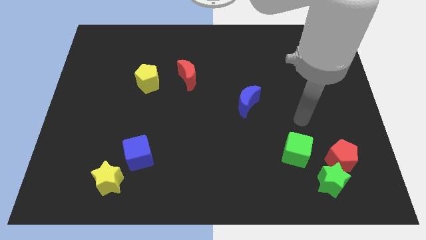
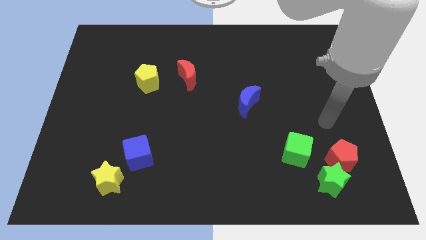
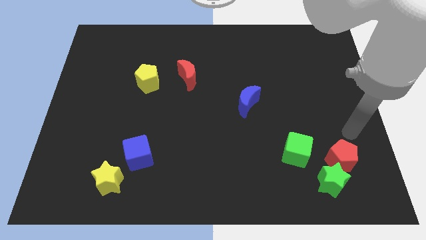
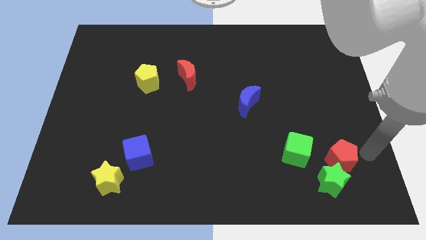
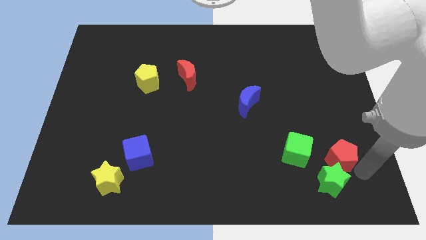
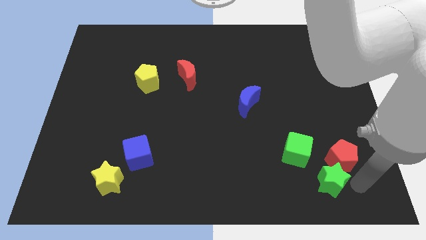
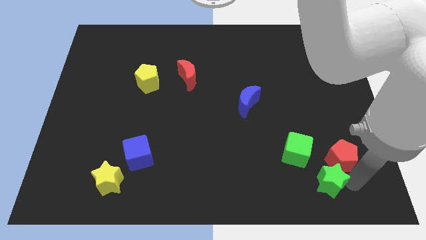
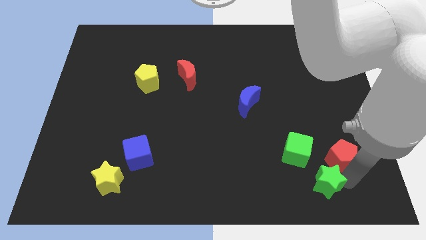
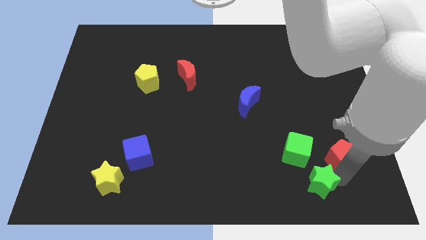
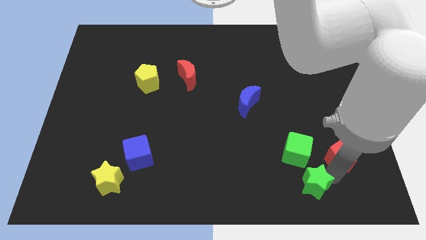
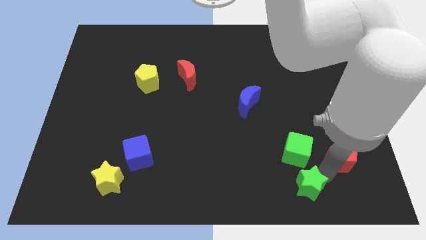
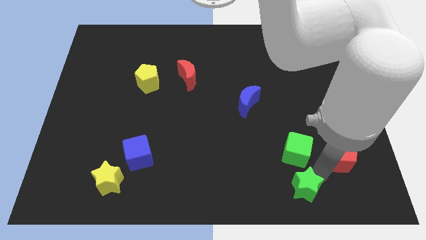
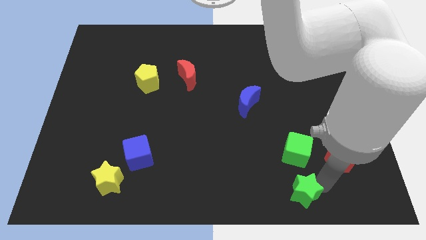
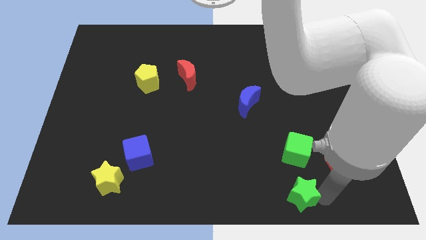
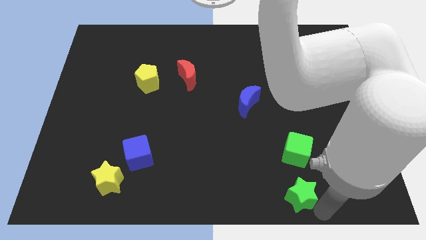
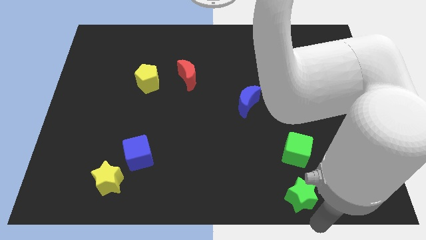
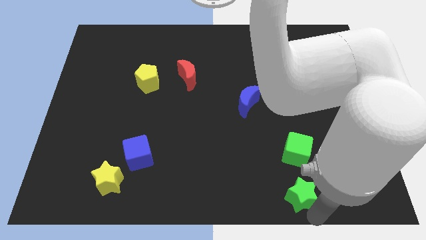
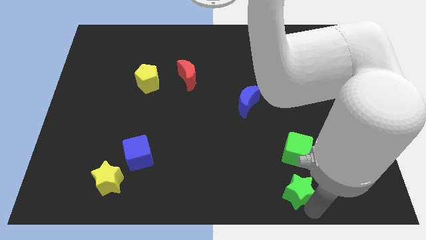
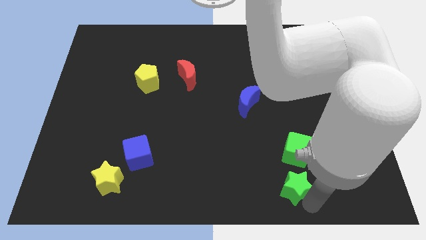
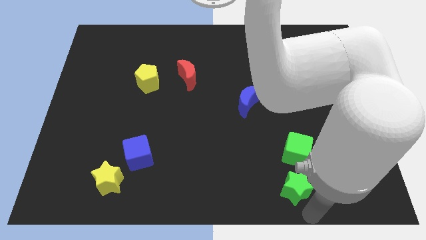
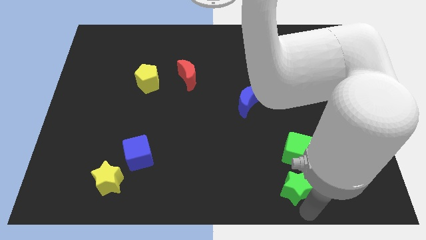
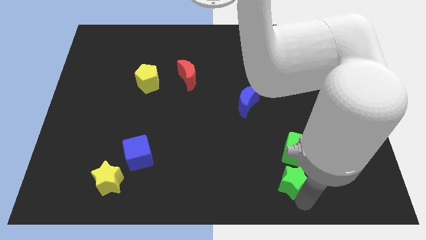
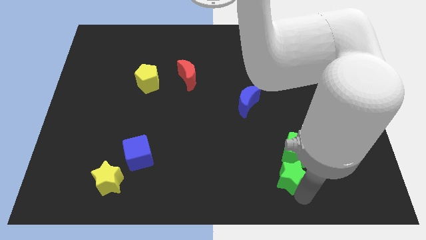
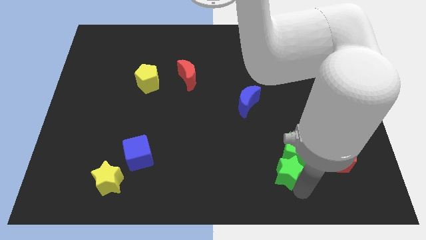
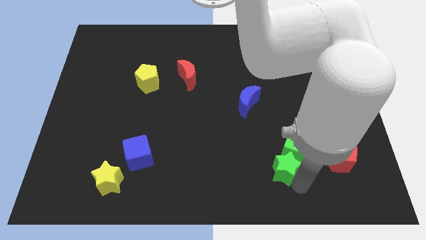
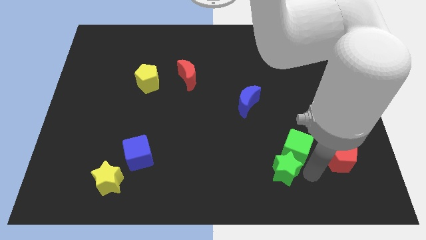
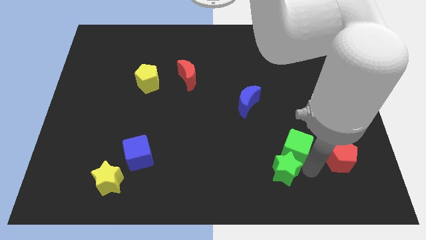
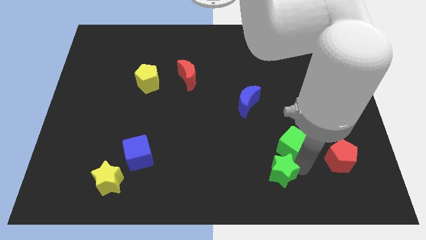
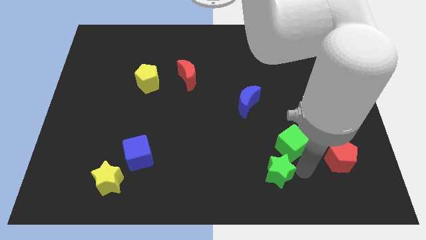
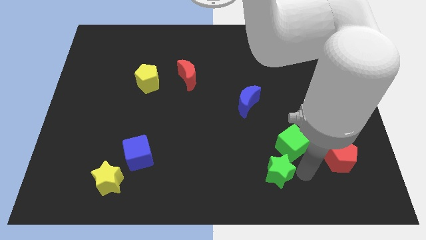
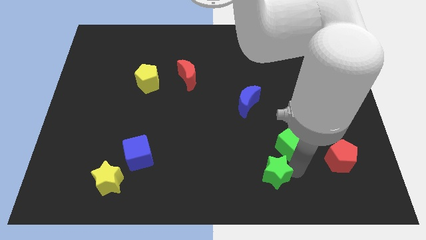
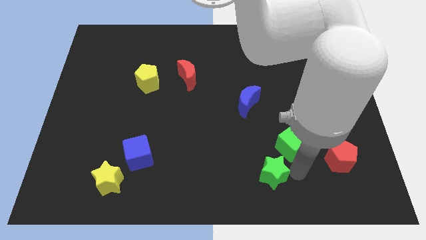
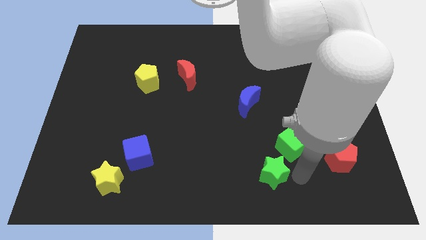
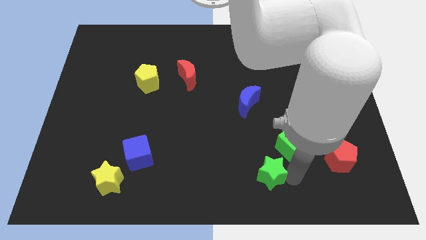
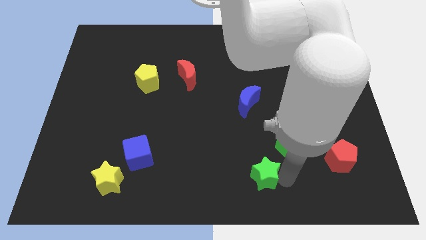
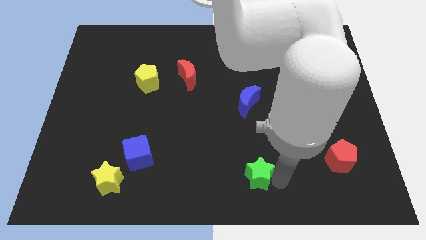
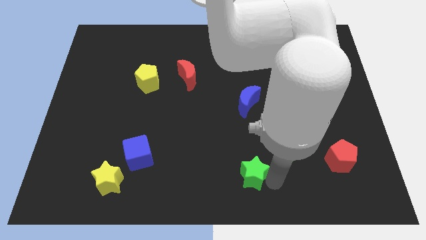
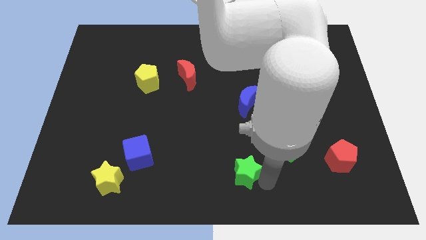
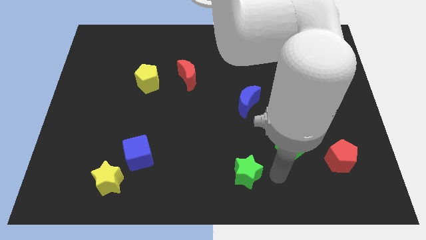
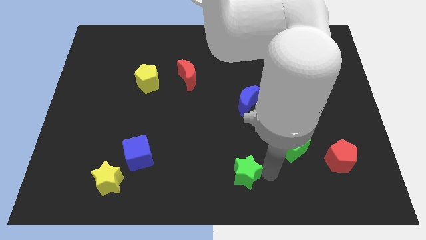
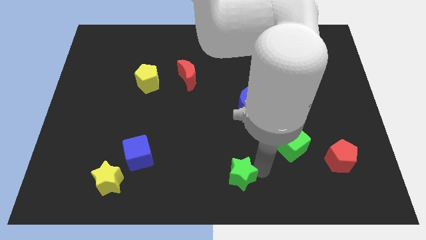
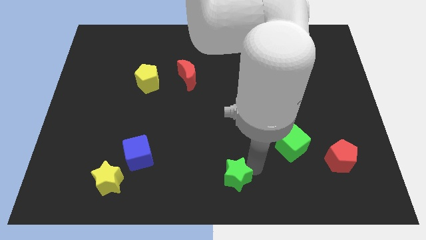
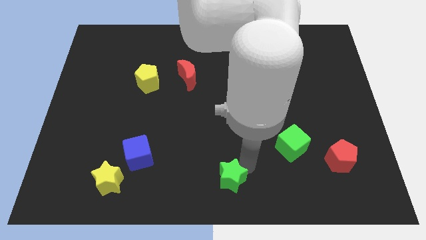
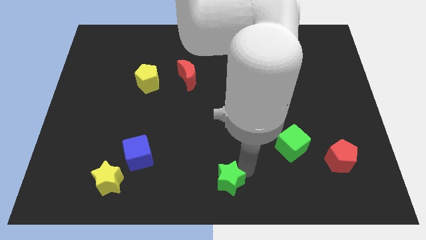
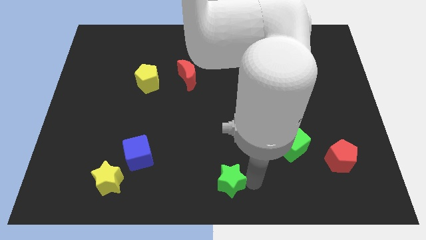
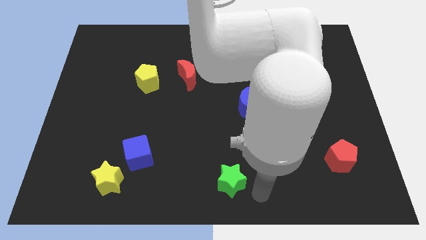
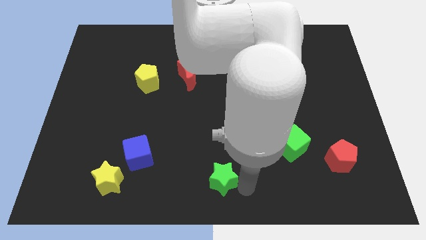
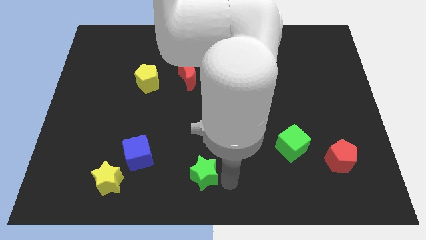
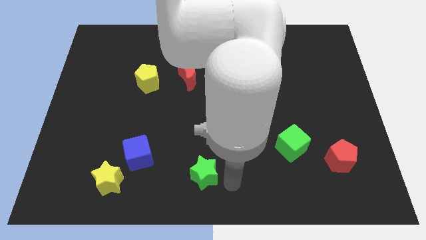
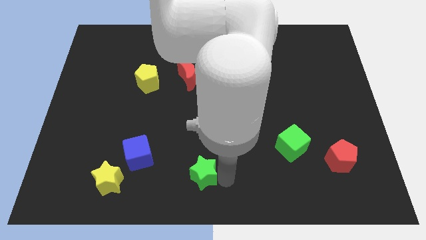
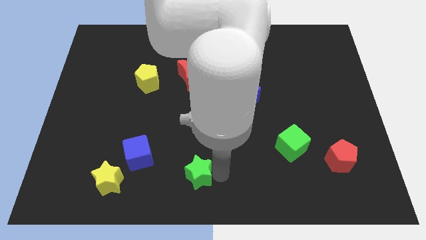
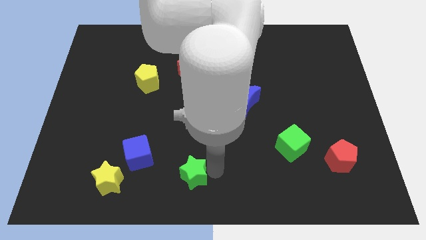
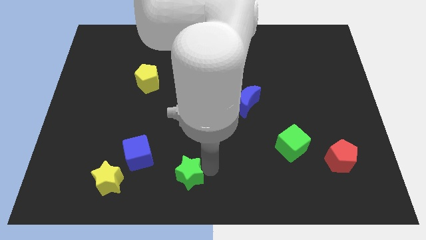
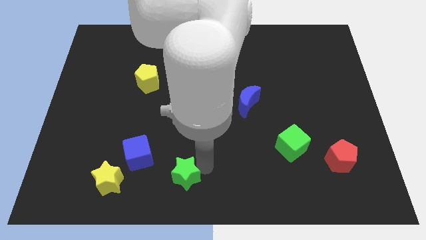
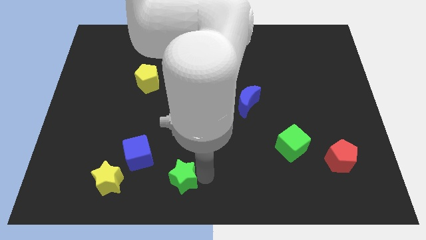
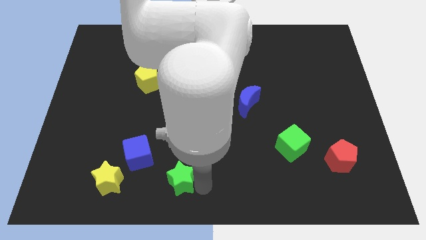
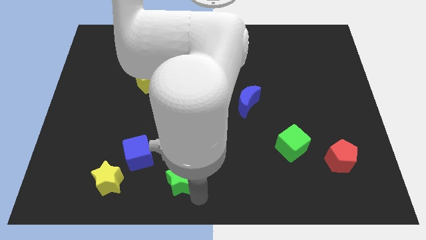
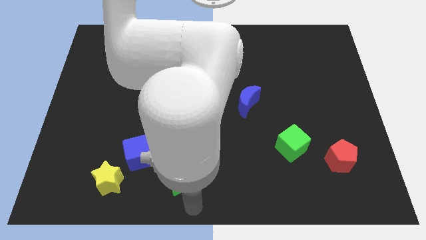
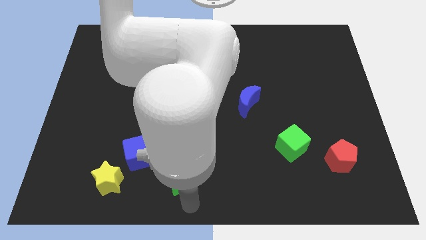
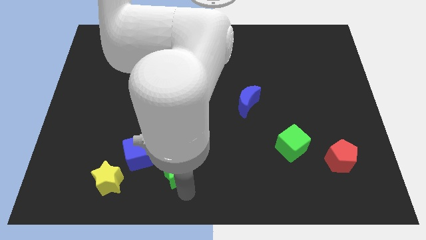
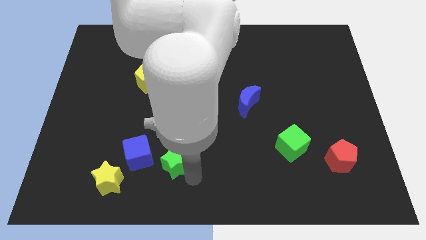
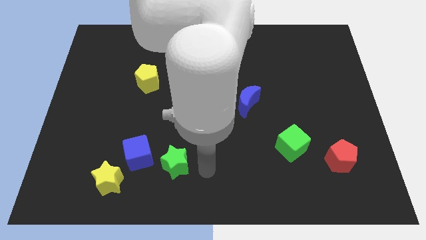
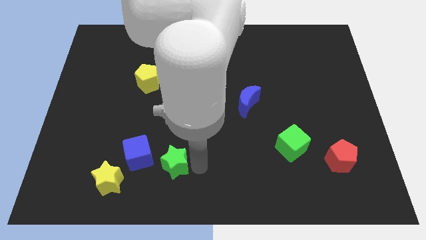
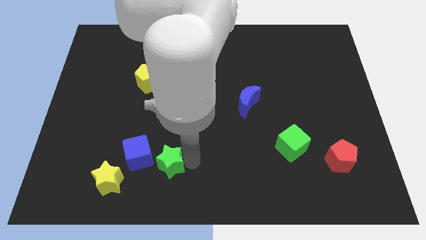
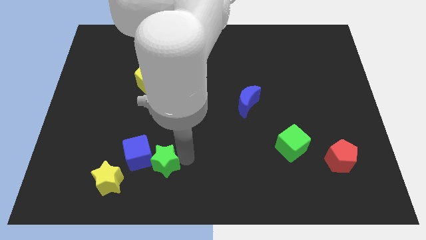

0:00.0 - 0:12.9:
slide the green star towards the blue cube
